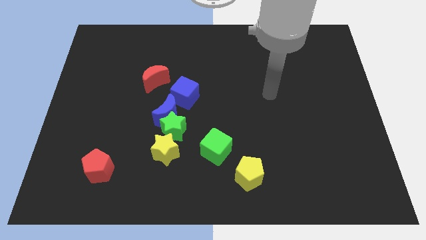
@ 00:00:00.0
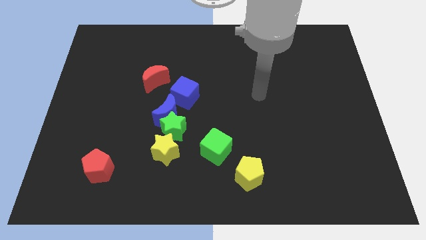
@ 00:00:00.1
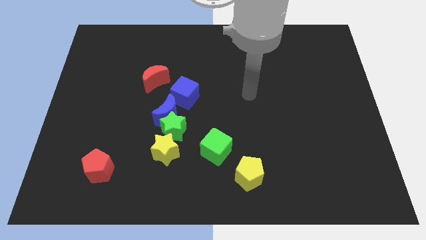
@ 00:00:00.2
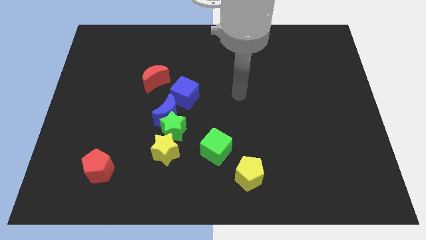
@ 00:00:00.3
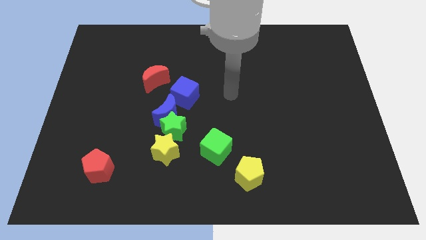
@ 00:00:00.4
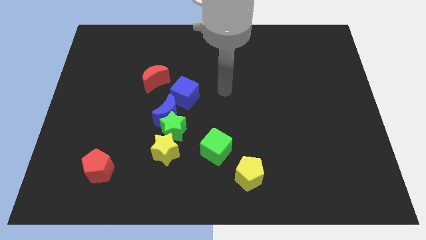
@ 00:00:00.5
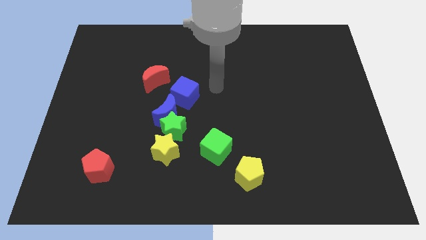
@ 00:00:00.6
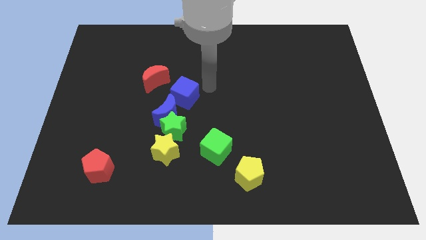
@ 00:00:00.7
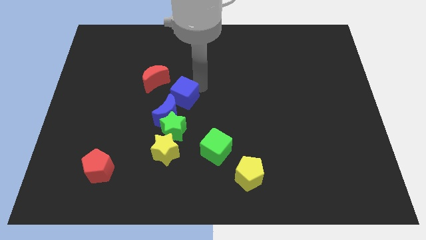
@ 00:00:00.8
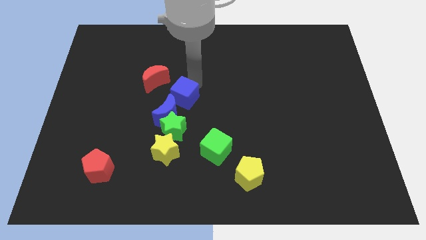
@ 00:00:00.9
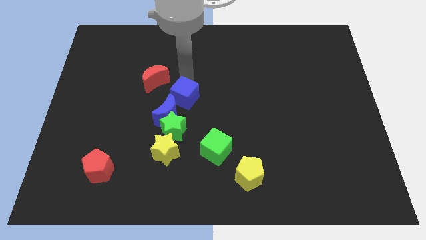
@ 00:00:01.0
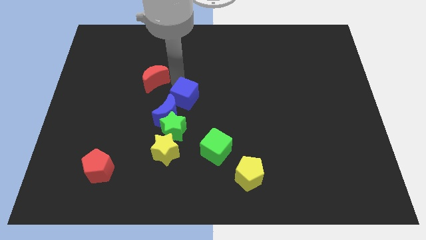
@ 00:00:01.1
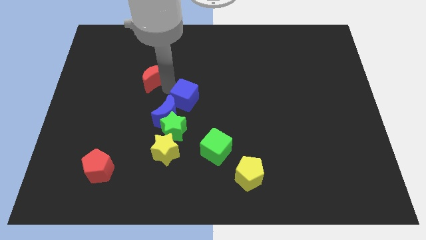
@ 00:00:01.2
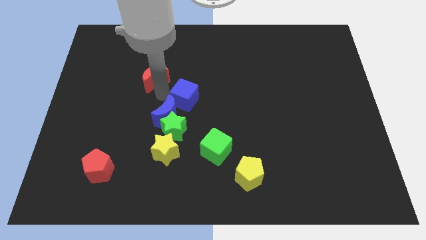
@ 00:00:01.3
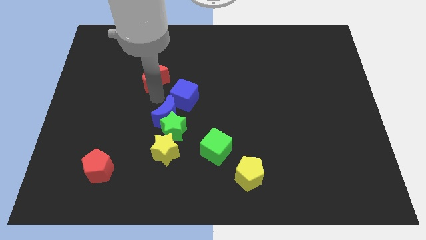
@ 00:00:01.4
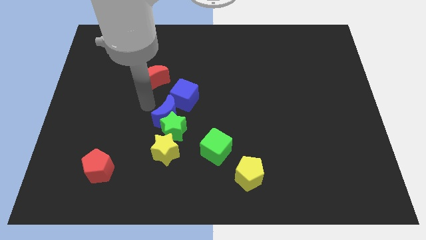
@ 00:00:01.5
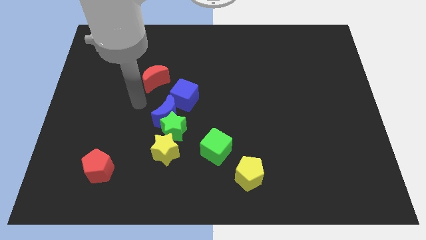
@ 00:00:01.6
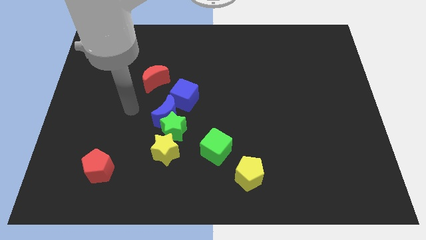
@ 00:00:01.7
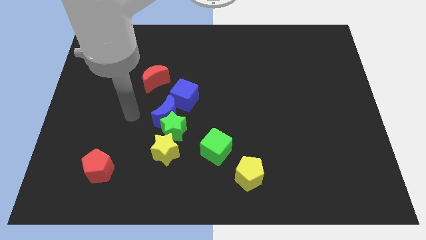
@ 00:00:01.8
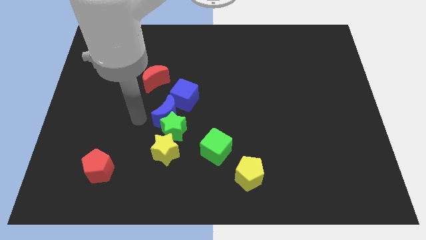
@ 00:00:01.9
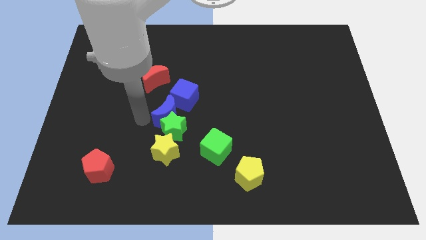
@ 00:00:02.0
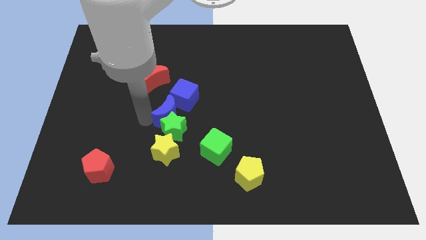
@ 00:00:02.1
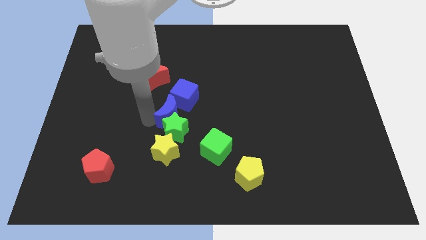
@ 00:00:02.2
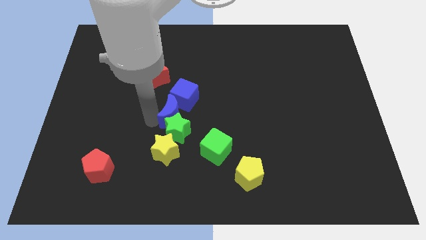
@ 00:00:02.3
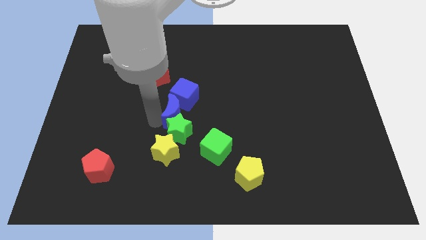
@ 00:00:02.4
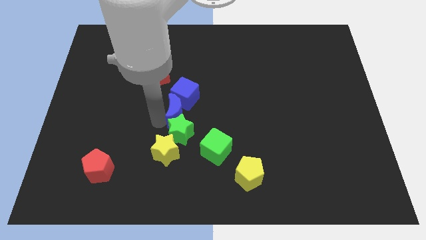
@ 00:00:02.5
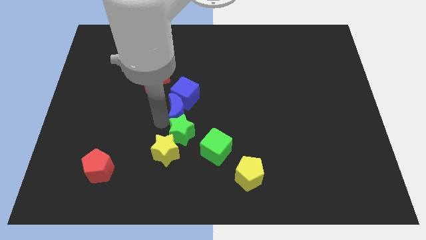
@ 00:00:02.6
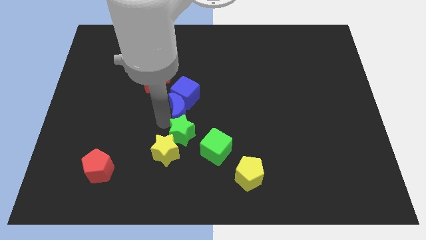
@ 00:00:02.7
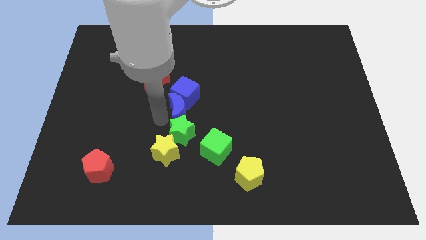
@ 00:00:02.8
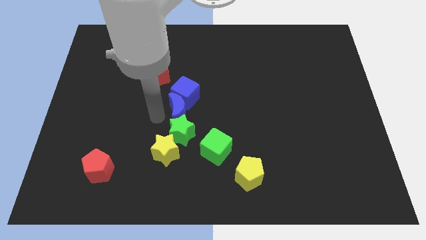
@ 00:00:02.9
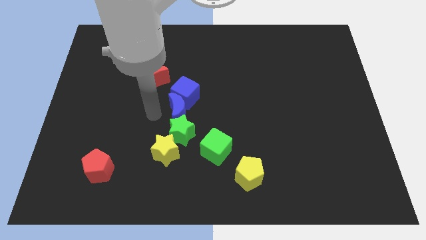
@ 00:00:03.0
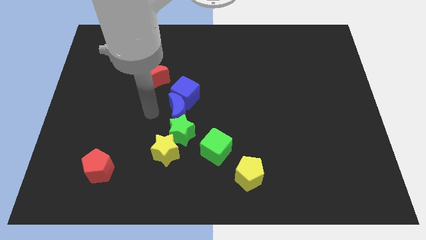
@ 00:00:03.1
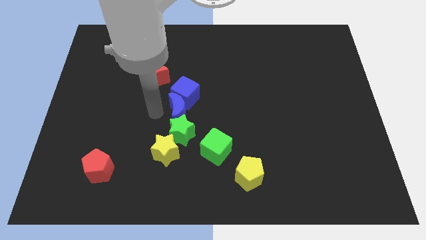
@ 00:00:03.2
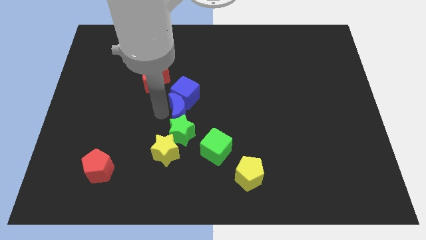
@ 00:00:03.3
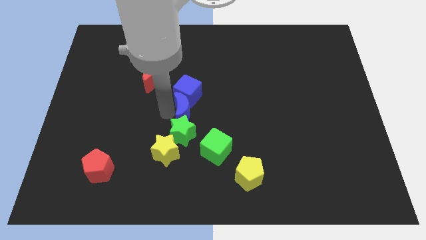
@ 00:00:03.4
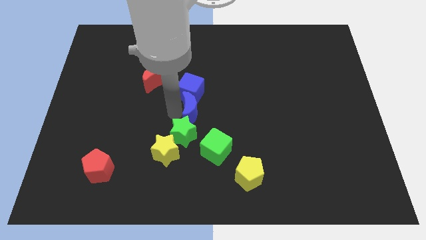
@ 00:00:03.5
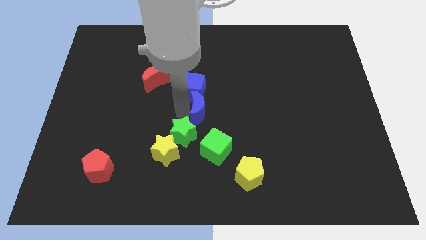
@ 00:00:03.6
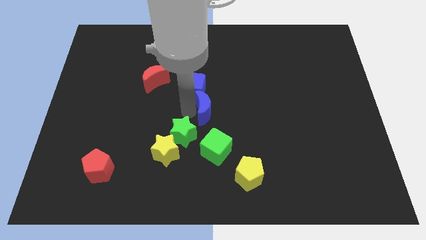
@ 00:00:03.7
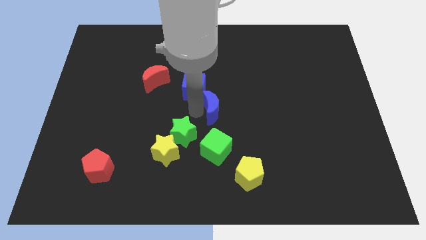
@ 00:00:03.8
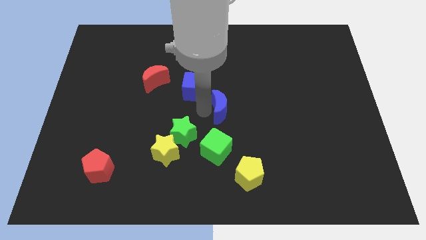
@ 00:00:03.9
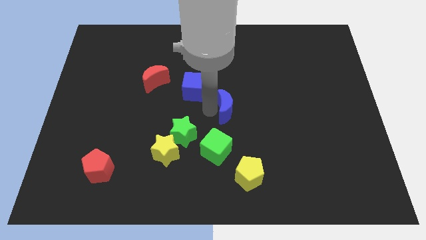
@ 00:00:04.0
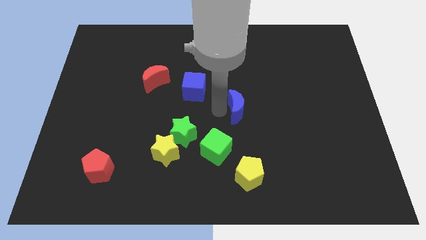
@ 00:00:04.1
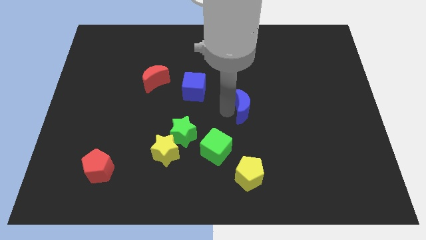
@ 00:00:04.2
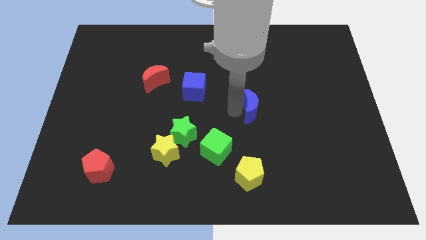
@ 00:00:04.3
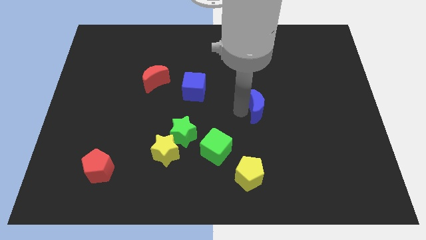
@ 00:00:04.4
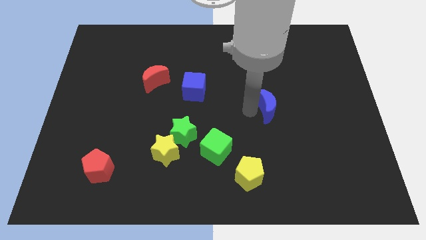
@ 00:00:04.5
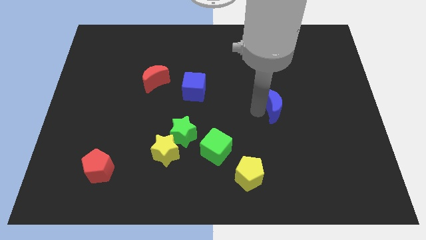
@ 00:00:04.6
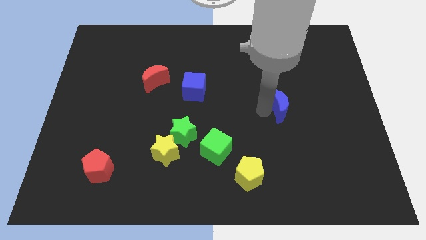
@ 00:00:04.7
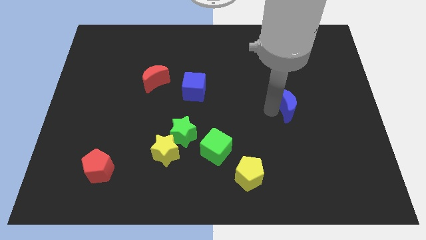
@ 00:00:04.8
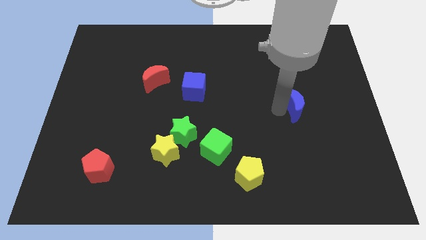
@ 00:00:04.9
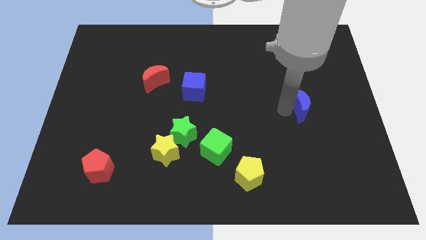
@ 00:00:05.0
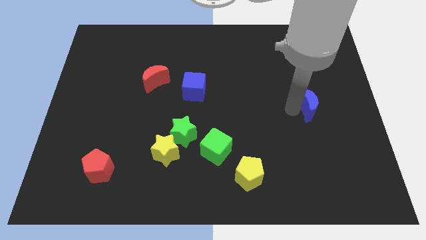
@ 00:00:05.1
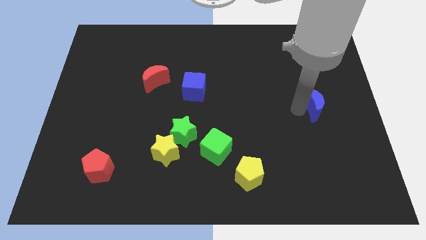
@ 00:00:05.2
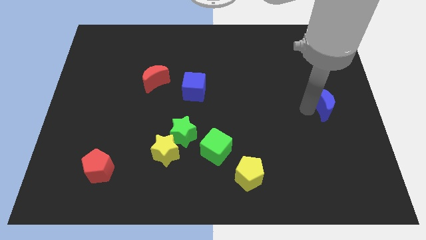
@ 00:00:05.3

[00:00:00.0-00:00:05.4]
push the blue moon to the center right

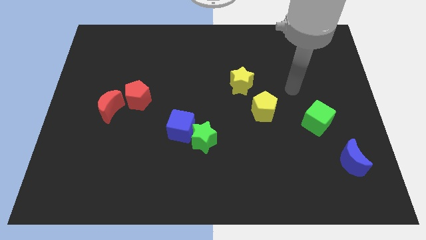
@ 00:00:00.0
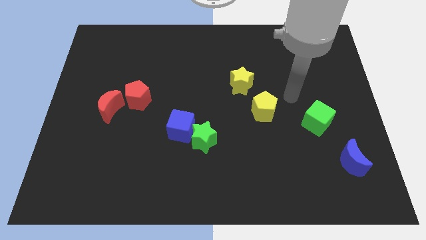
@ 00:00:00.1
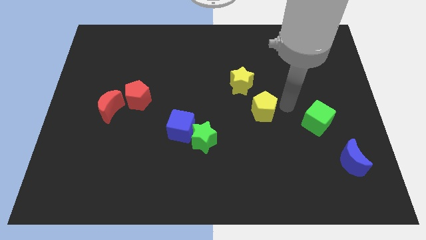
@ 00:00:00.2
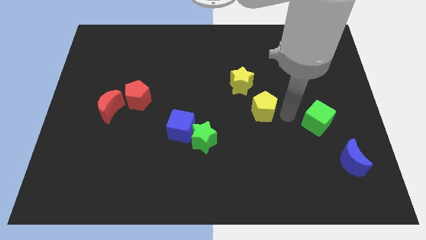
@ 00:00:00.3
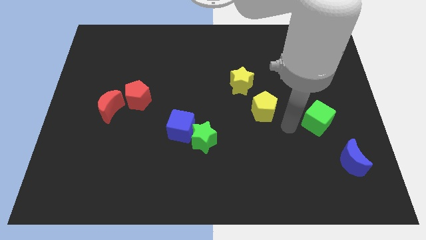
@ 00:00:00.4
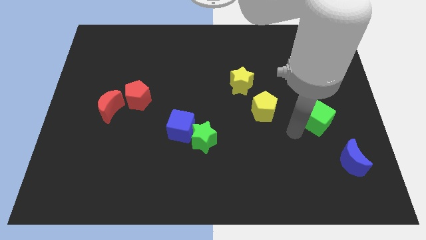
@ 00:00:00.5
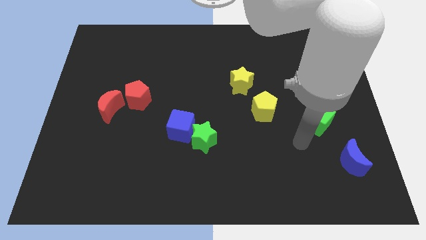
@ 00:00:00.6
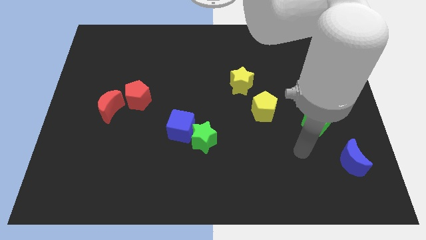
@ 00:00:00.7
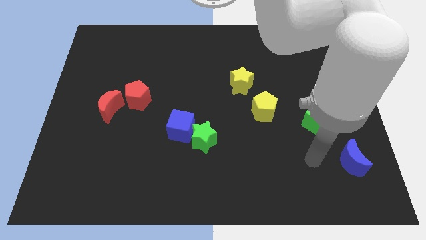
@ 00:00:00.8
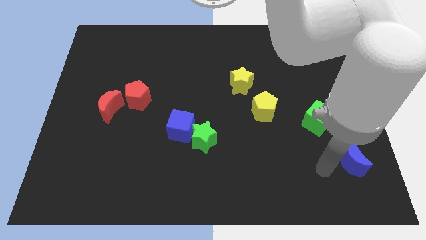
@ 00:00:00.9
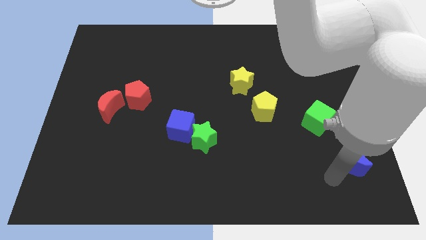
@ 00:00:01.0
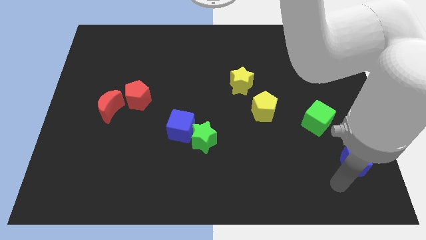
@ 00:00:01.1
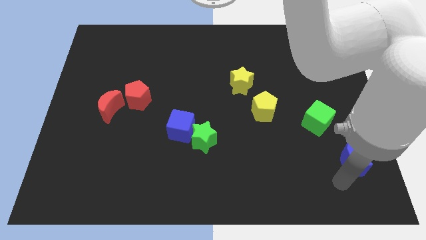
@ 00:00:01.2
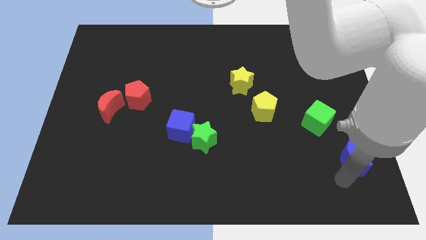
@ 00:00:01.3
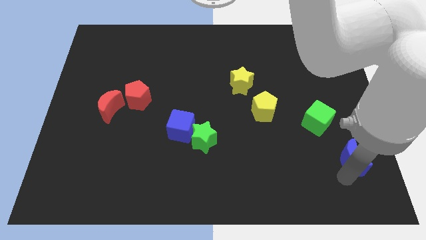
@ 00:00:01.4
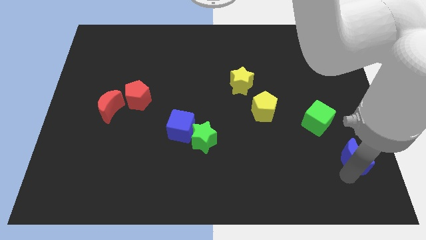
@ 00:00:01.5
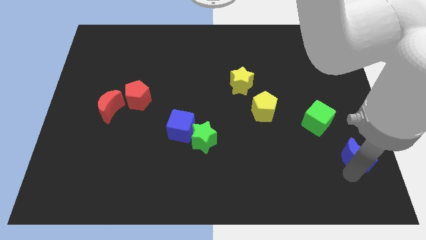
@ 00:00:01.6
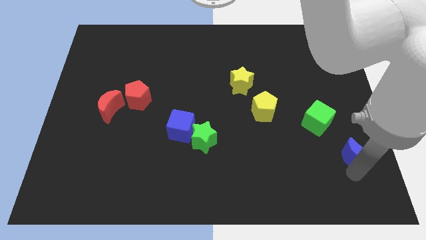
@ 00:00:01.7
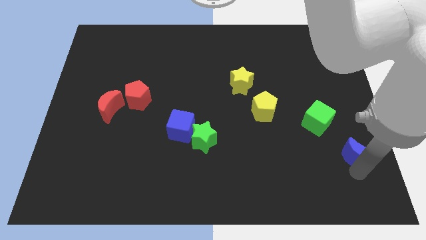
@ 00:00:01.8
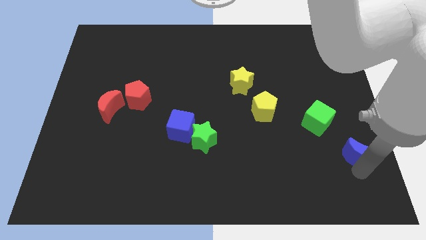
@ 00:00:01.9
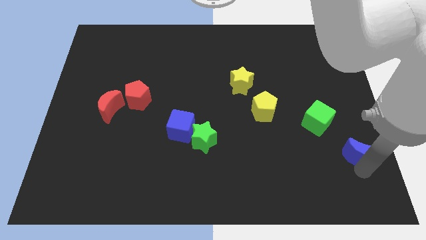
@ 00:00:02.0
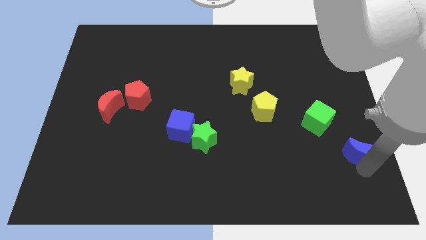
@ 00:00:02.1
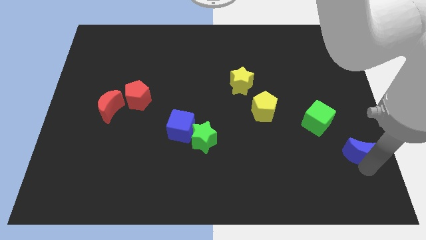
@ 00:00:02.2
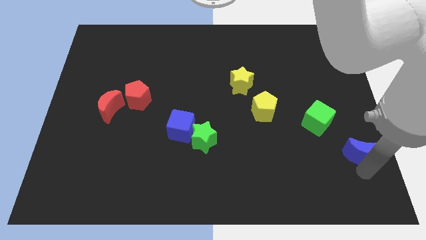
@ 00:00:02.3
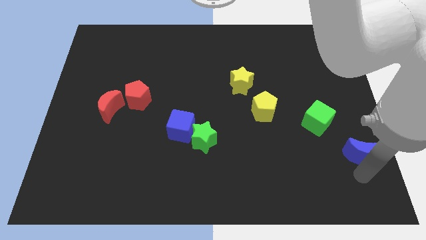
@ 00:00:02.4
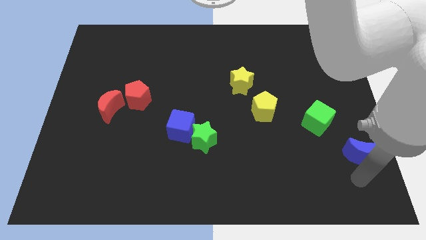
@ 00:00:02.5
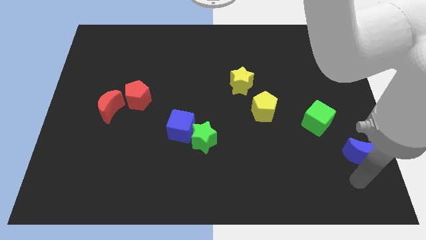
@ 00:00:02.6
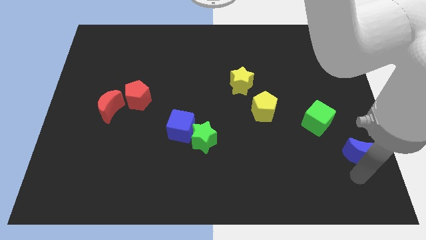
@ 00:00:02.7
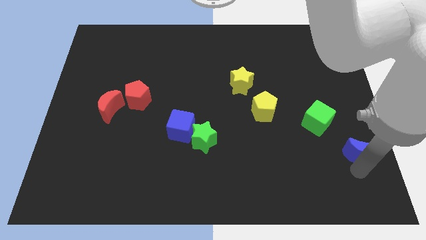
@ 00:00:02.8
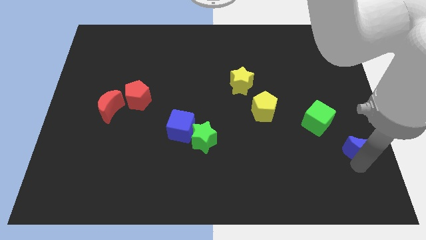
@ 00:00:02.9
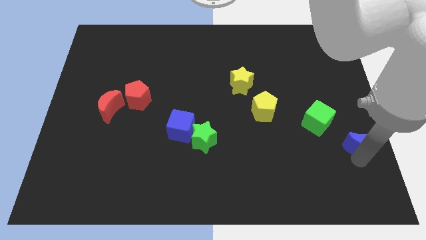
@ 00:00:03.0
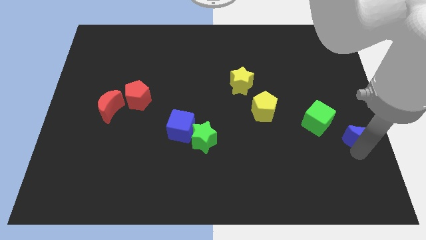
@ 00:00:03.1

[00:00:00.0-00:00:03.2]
push the blue moon to the right side of the board
